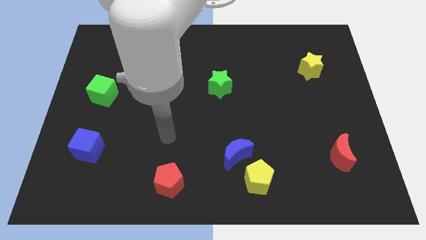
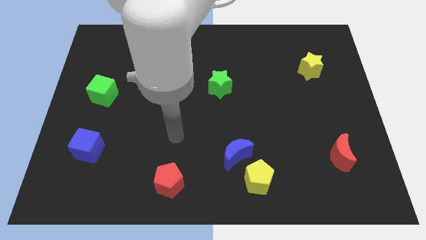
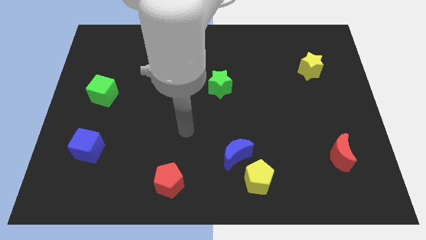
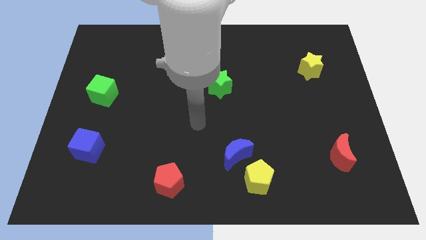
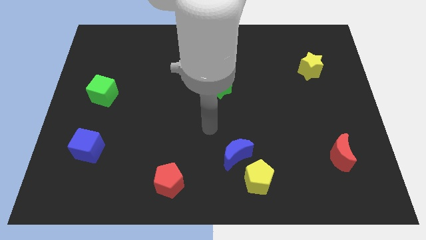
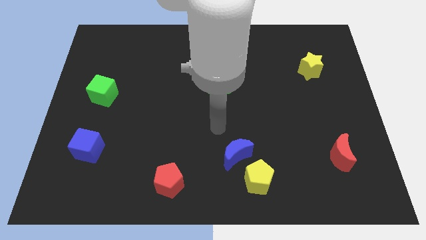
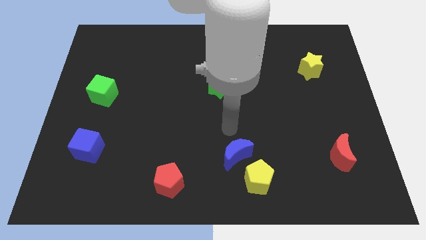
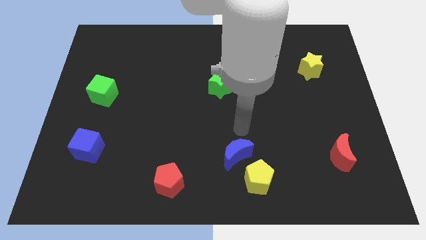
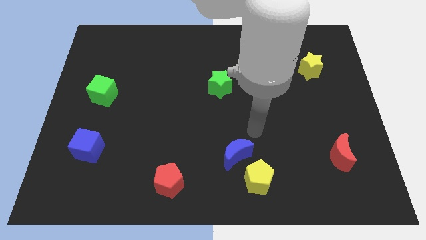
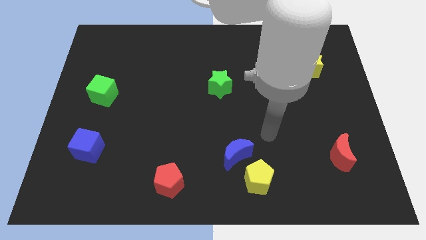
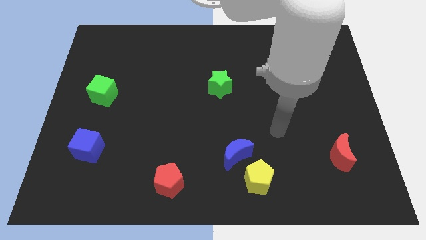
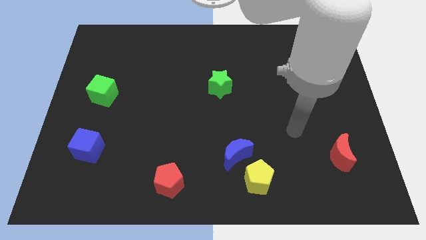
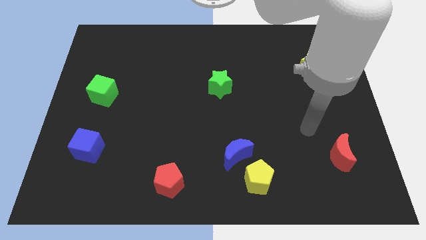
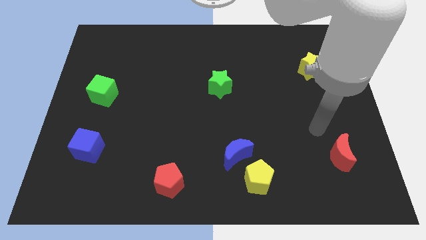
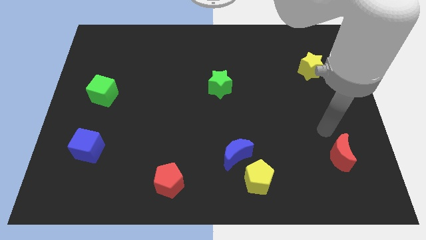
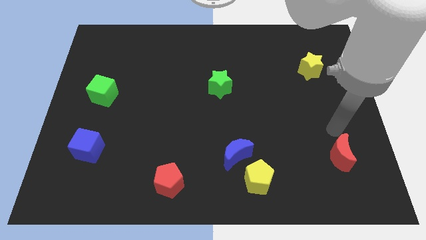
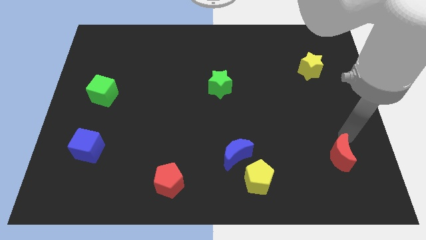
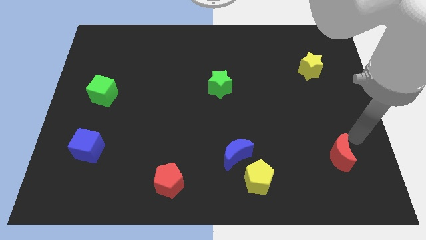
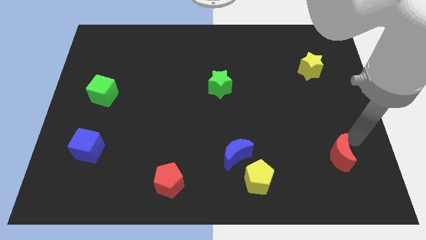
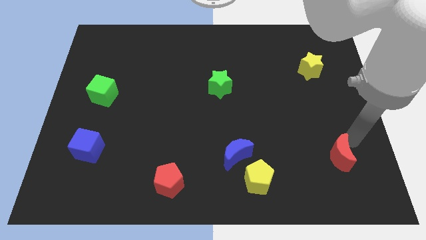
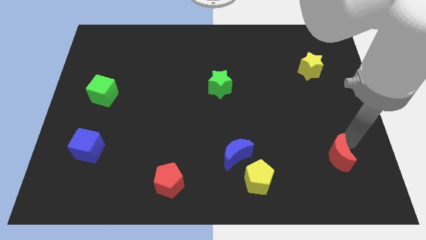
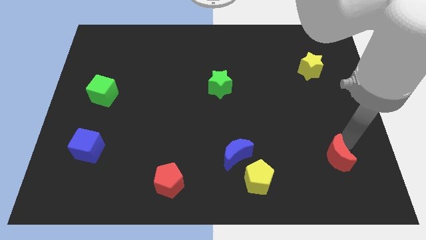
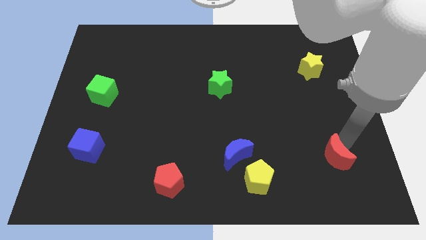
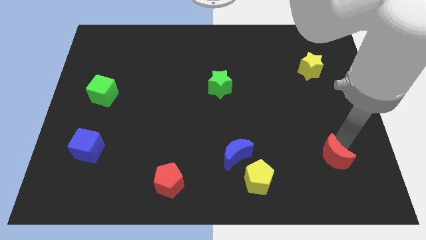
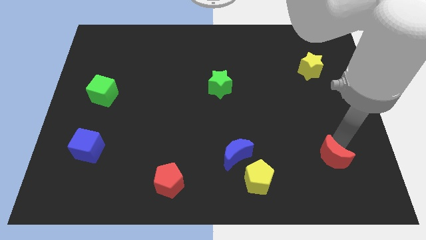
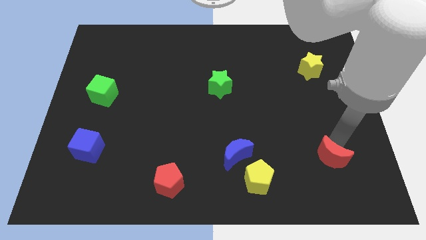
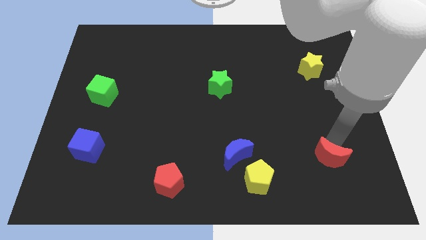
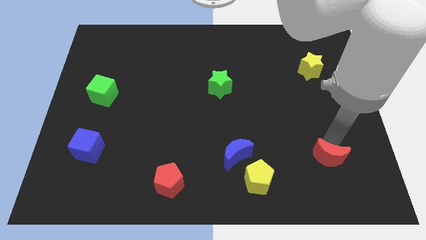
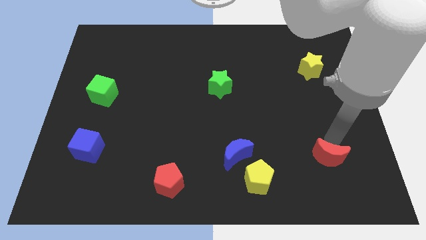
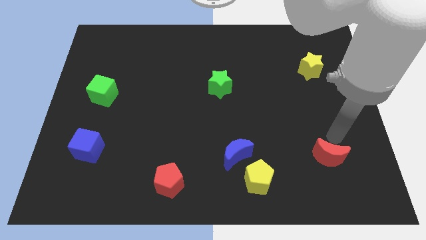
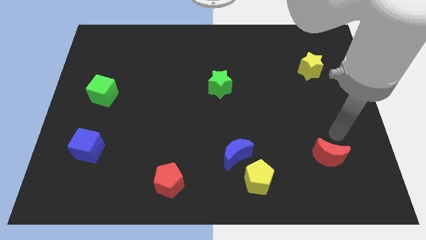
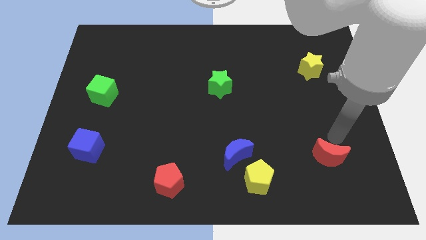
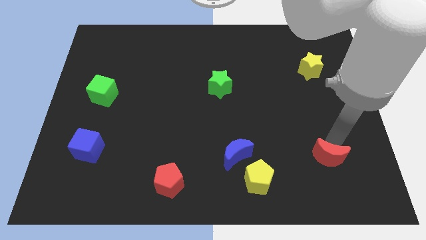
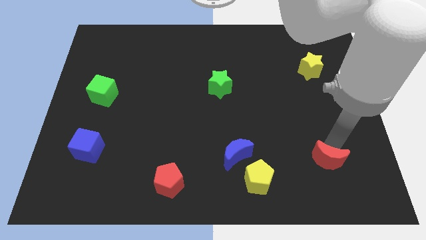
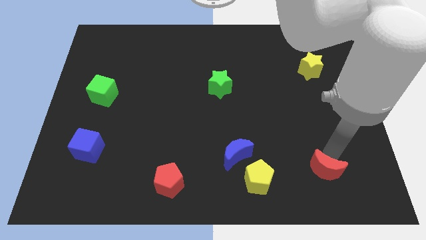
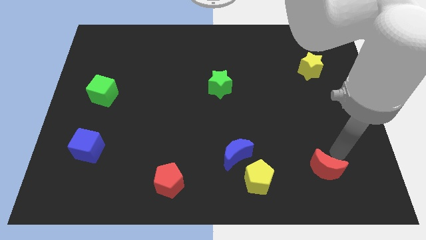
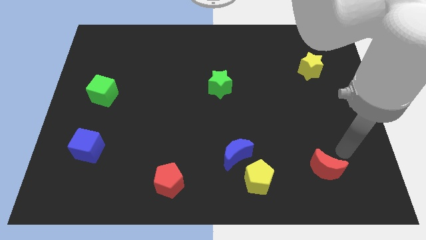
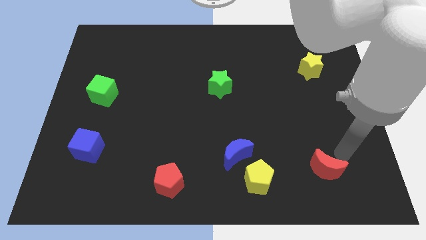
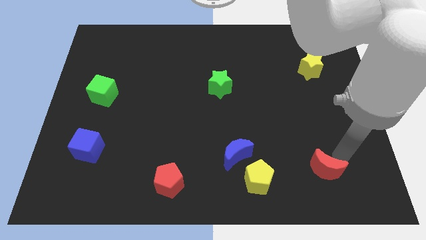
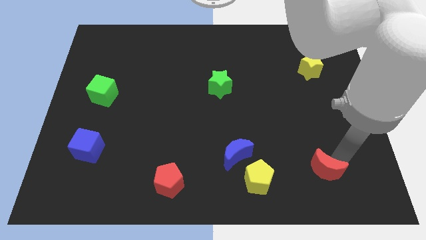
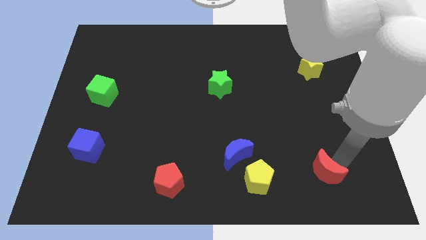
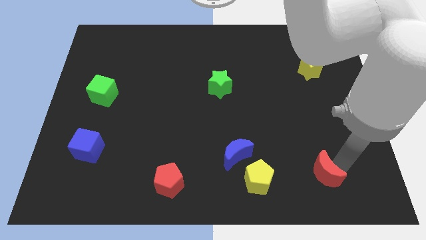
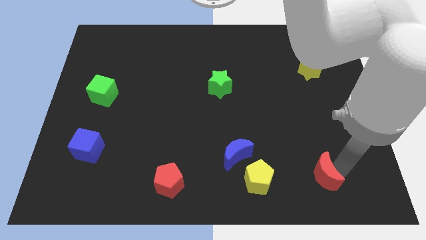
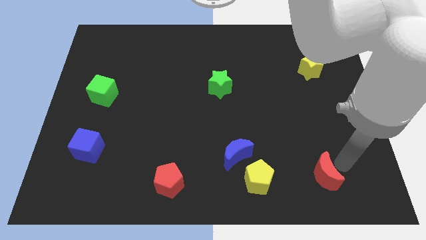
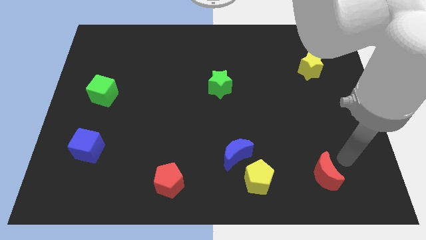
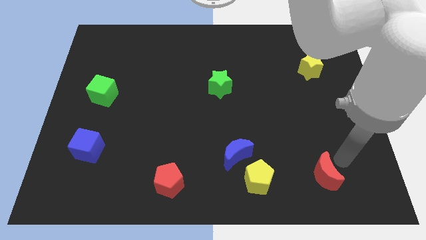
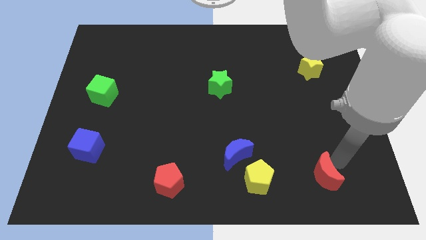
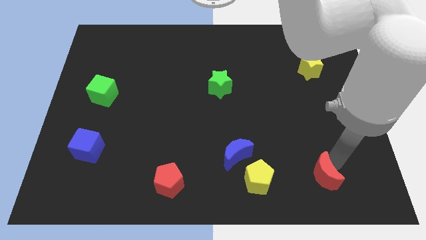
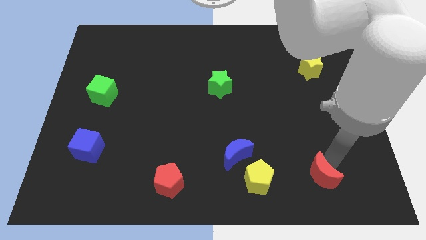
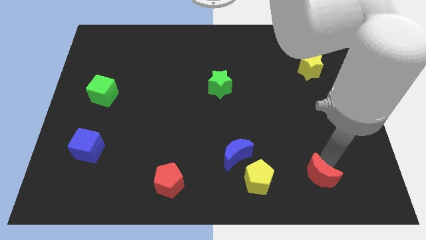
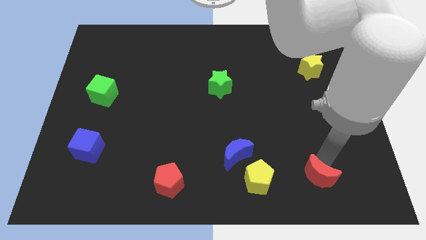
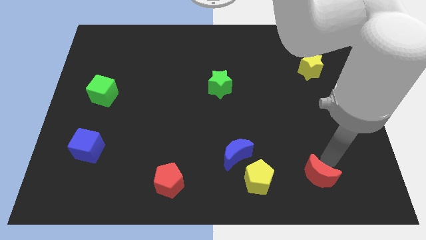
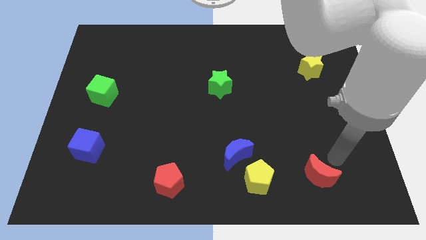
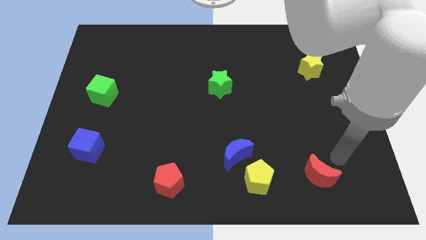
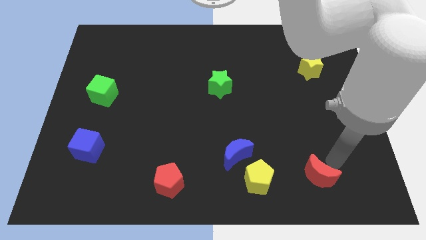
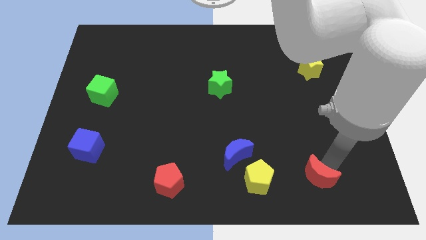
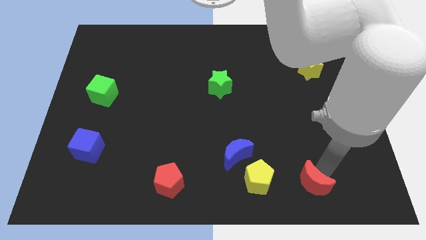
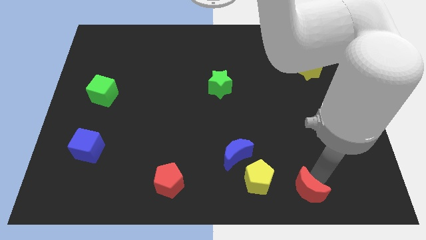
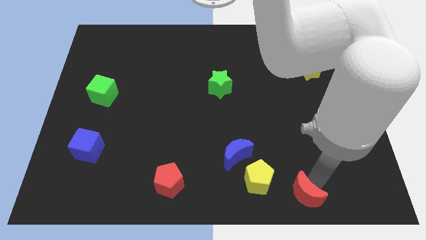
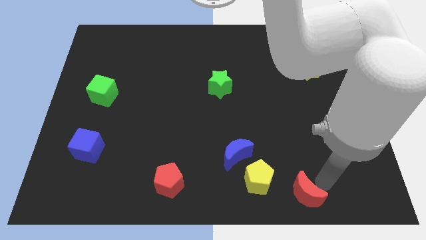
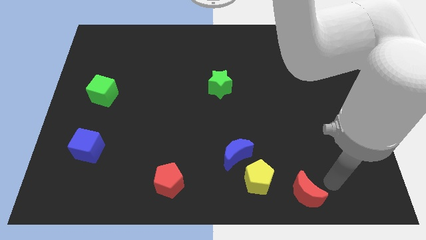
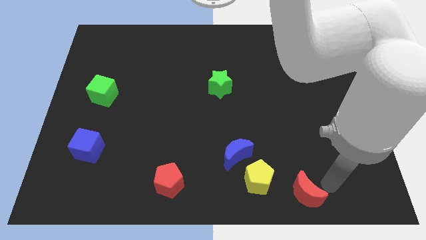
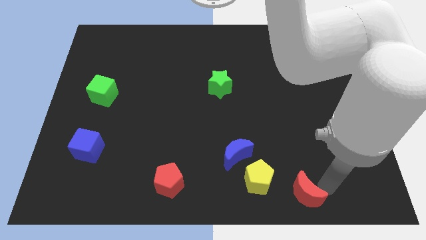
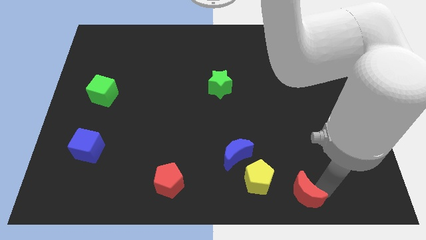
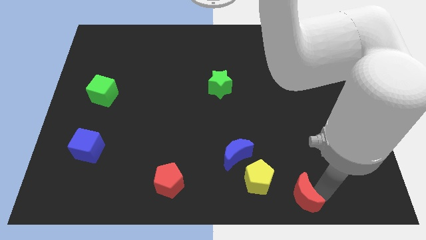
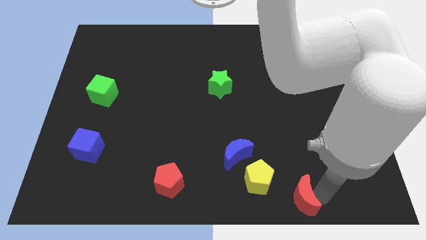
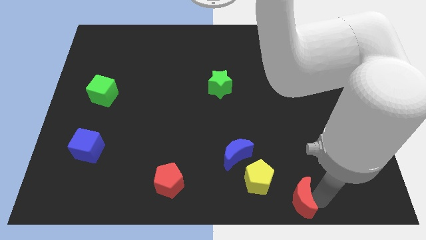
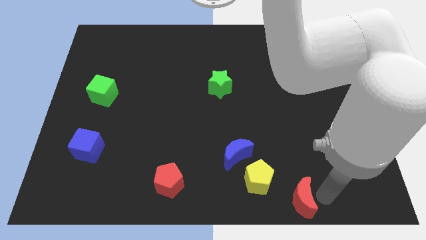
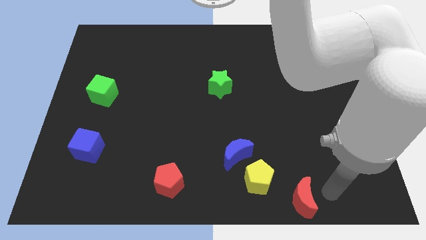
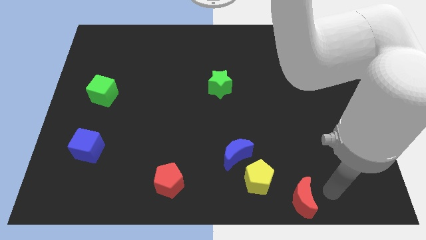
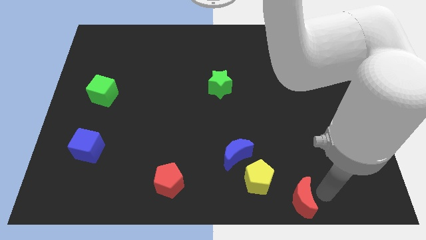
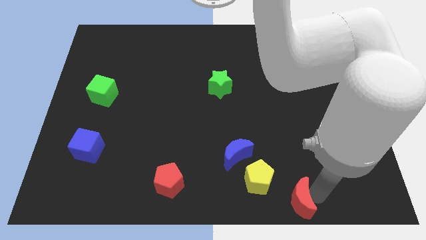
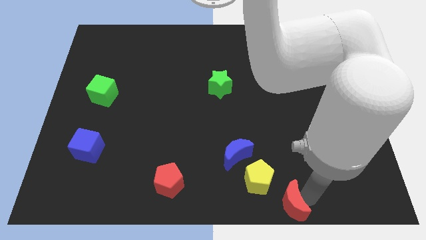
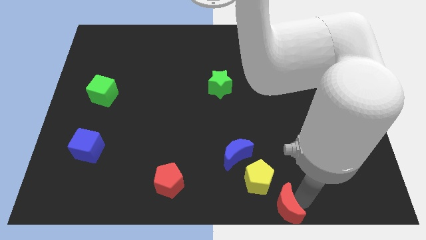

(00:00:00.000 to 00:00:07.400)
push the red moon to the bottom
